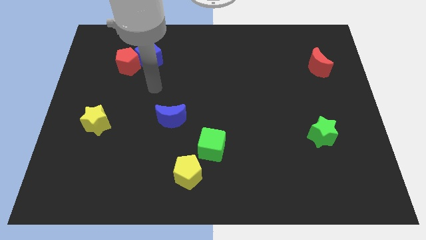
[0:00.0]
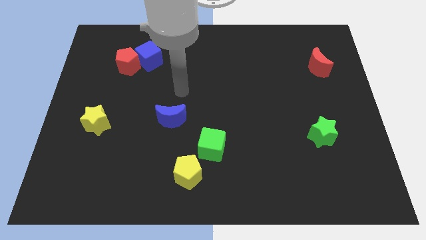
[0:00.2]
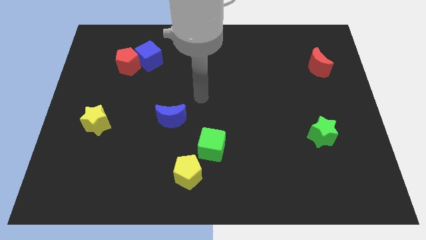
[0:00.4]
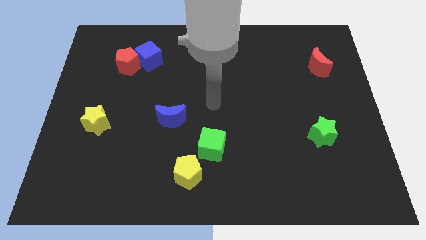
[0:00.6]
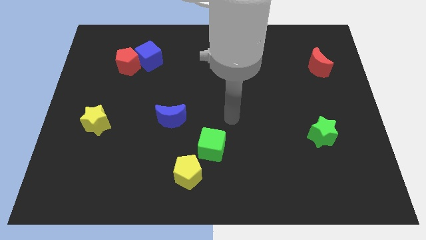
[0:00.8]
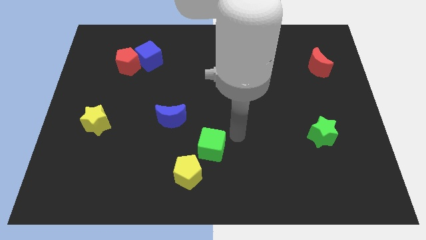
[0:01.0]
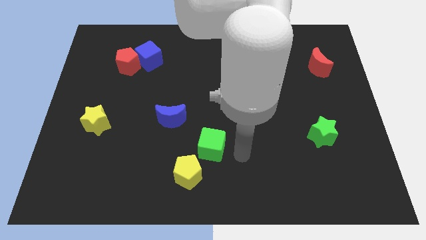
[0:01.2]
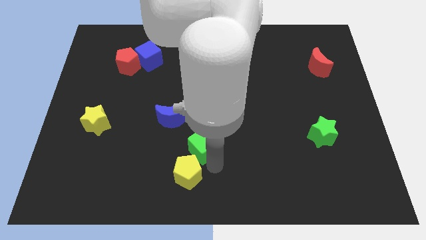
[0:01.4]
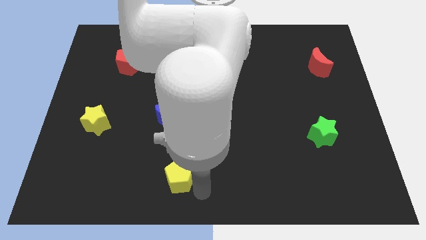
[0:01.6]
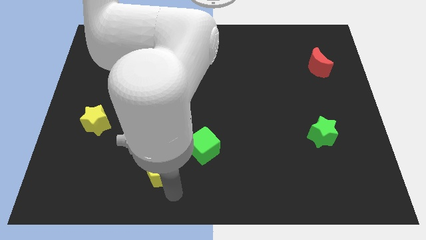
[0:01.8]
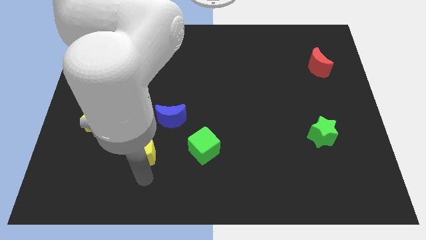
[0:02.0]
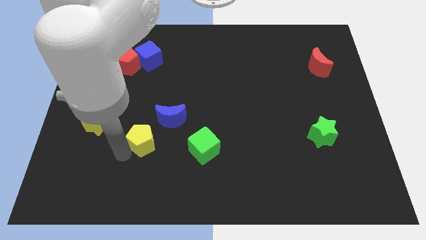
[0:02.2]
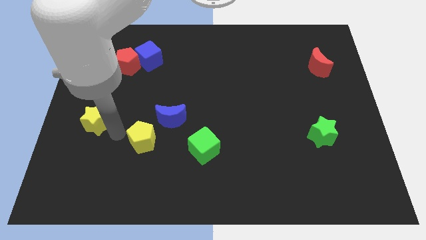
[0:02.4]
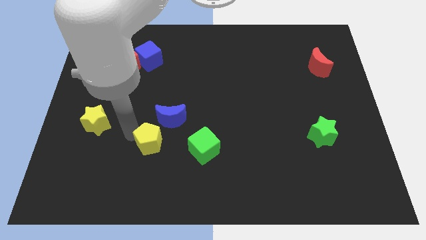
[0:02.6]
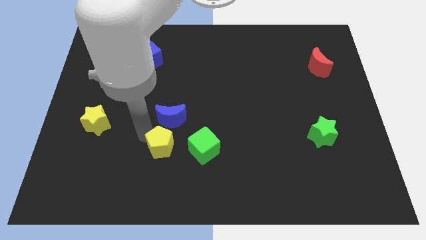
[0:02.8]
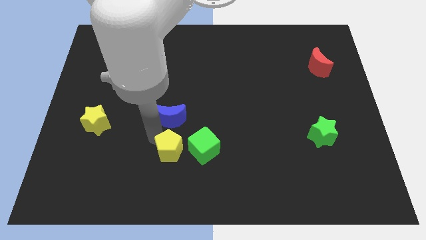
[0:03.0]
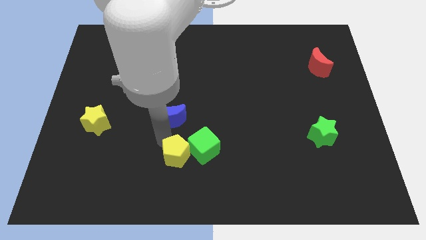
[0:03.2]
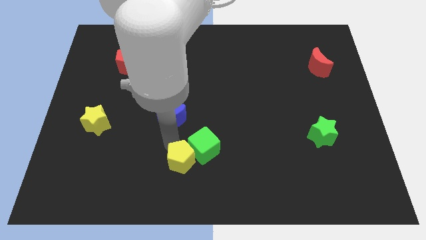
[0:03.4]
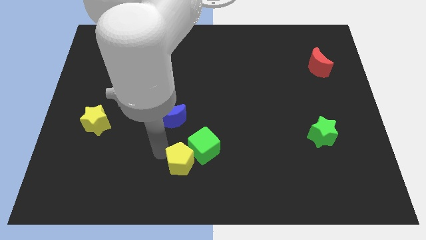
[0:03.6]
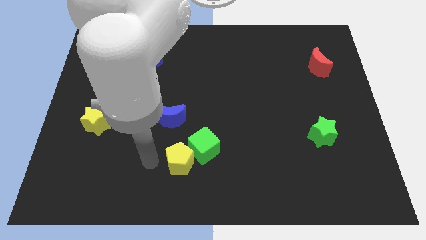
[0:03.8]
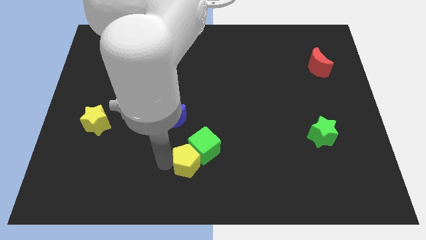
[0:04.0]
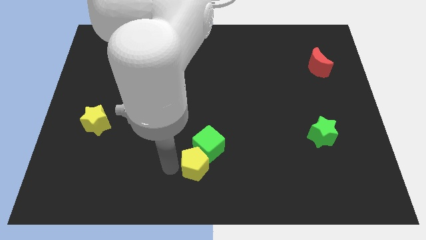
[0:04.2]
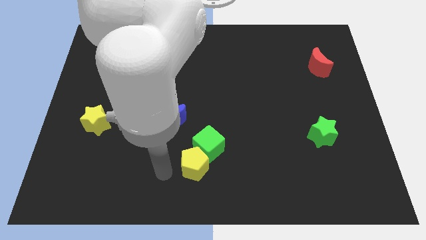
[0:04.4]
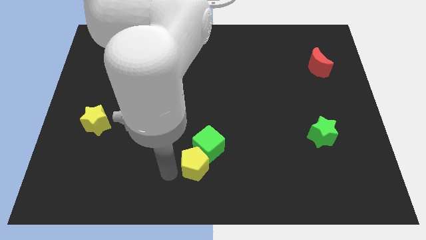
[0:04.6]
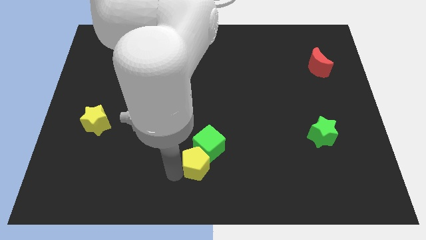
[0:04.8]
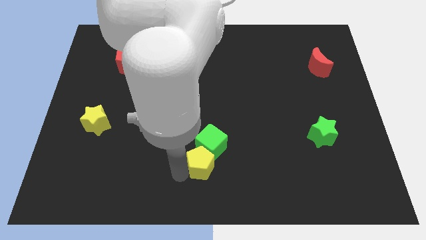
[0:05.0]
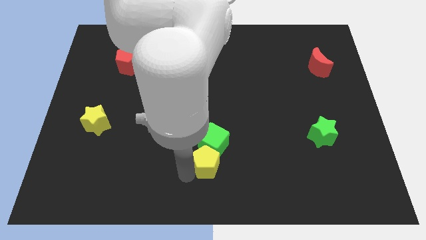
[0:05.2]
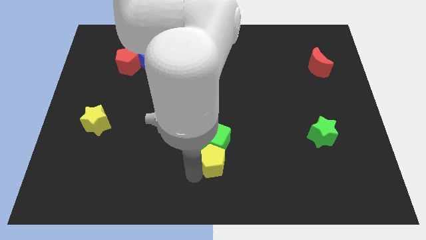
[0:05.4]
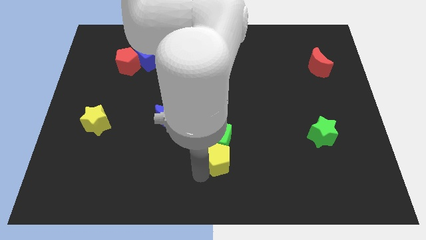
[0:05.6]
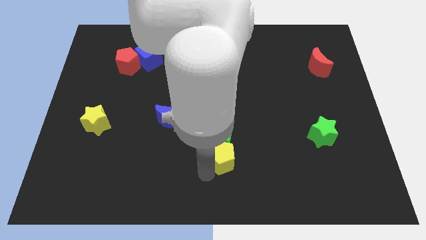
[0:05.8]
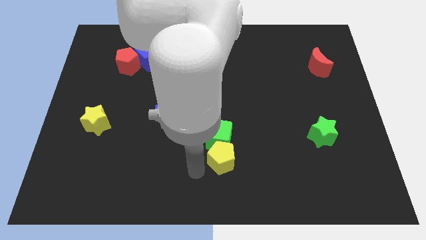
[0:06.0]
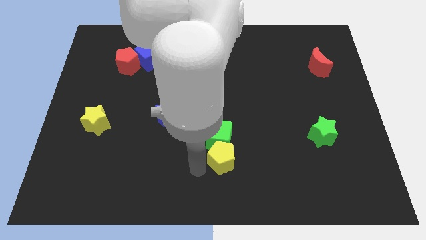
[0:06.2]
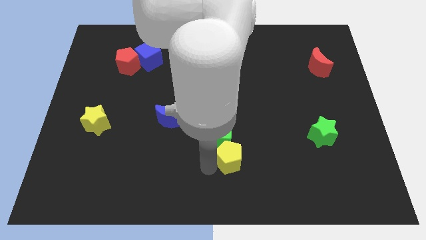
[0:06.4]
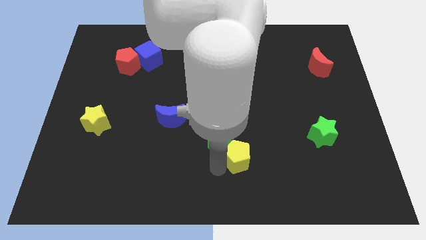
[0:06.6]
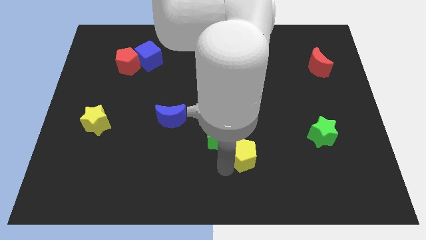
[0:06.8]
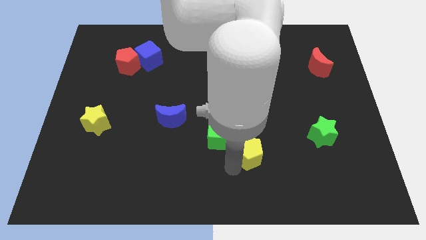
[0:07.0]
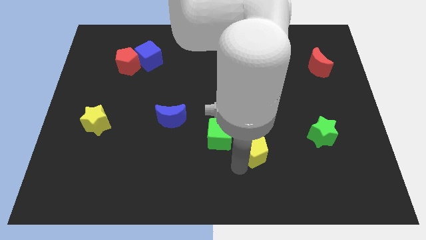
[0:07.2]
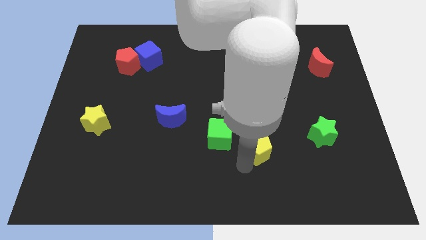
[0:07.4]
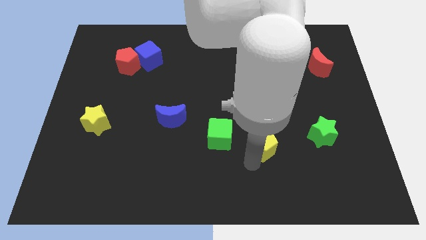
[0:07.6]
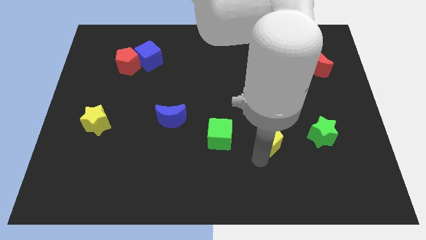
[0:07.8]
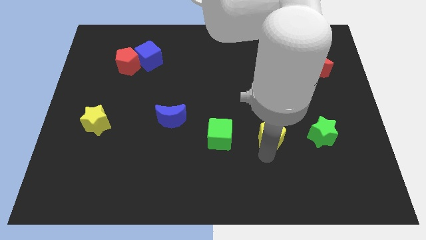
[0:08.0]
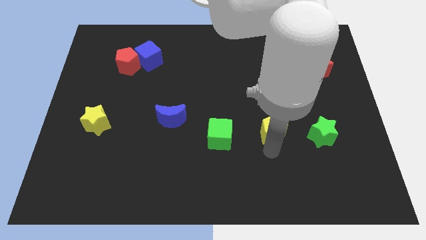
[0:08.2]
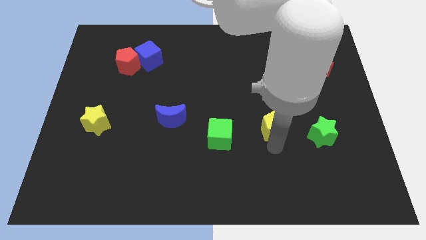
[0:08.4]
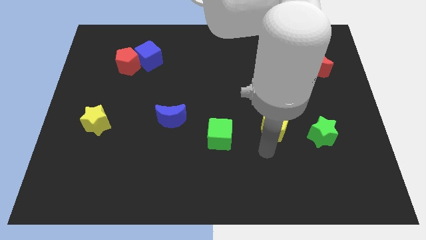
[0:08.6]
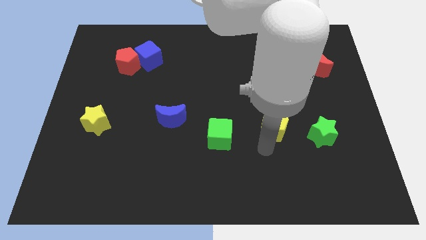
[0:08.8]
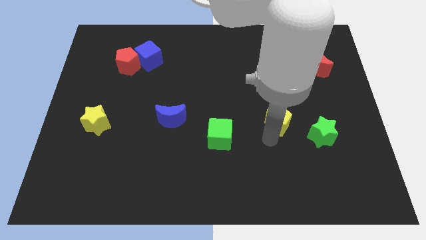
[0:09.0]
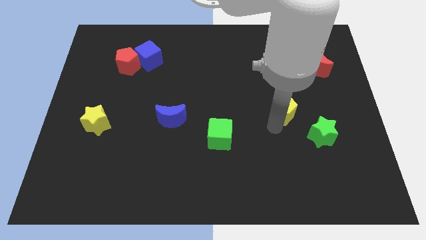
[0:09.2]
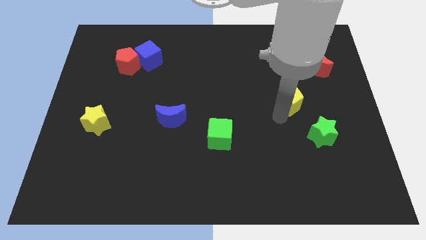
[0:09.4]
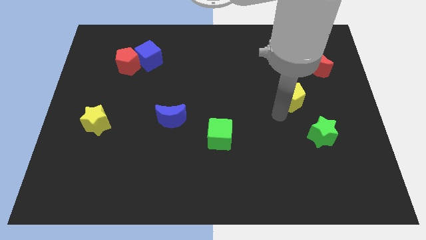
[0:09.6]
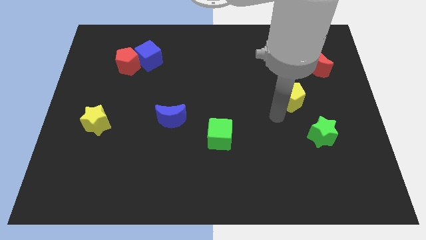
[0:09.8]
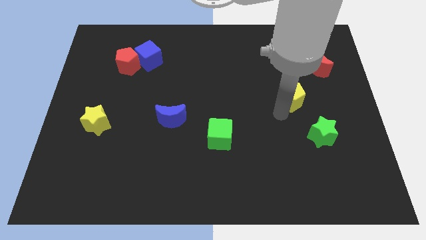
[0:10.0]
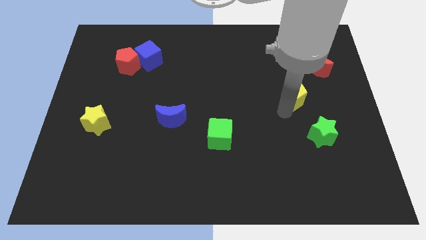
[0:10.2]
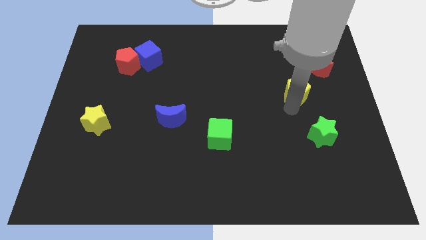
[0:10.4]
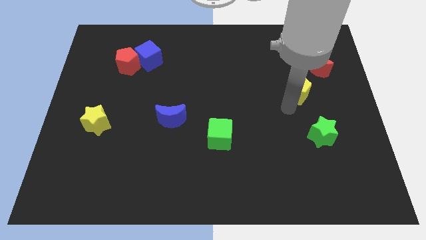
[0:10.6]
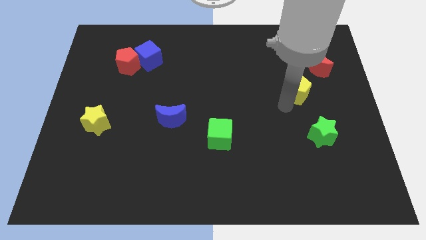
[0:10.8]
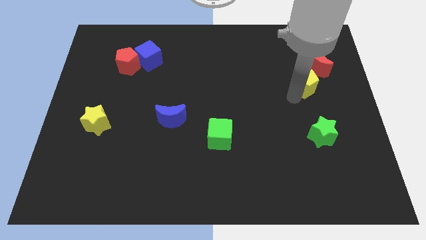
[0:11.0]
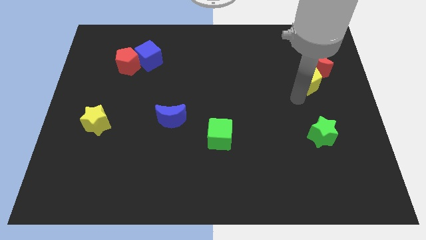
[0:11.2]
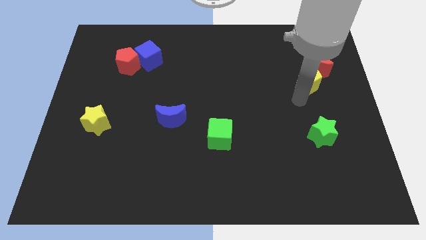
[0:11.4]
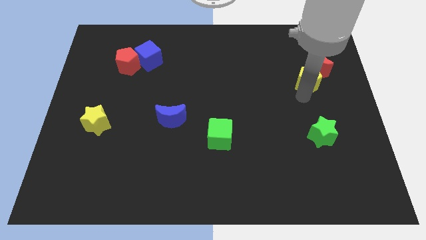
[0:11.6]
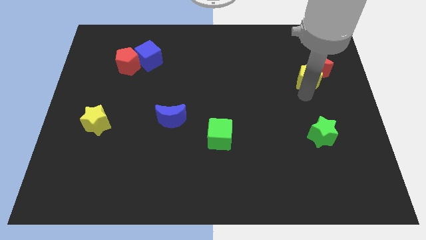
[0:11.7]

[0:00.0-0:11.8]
slide the yellow pentagon to the red moon

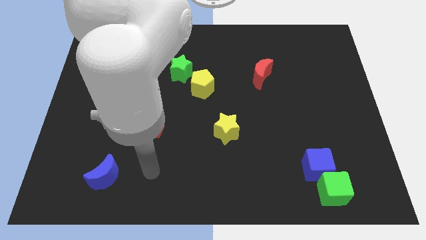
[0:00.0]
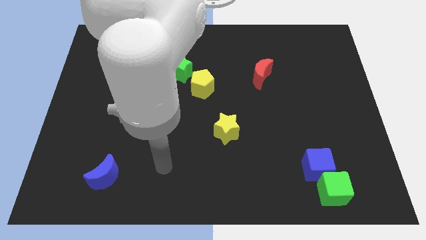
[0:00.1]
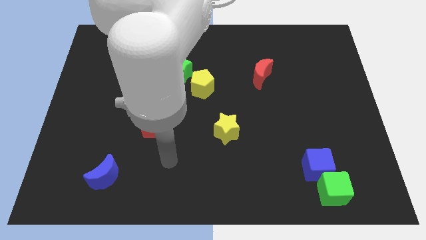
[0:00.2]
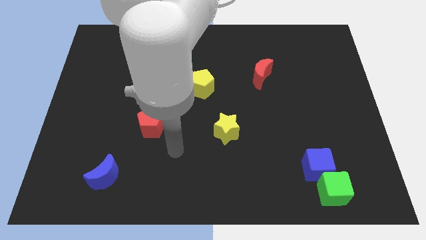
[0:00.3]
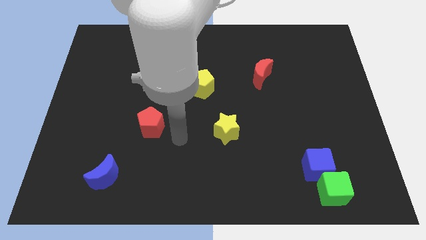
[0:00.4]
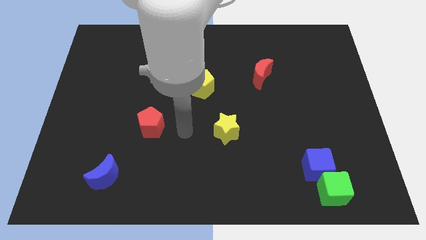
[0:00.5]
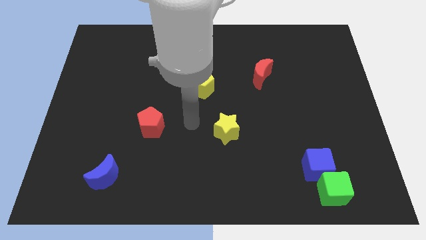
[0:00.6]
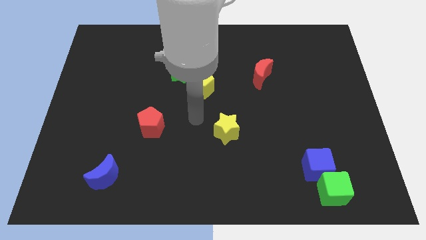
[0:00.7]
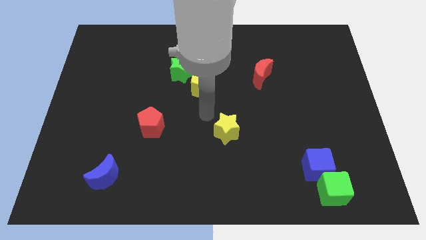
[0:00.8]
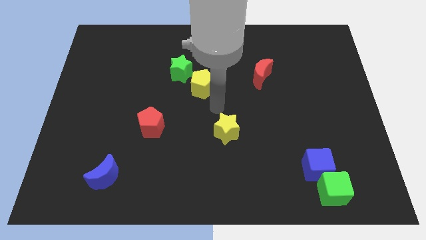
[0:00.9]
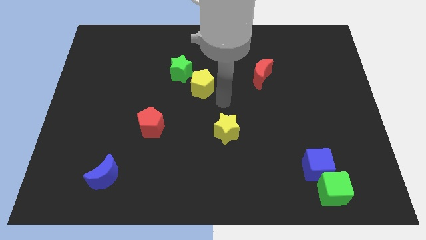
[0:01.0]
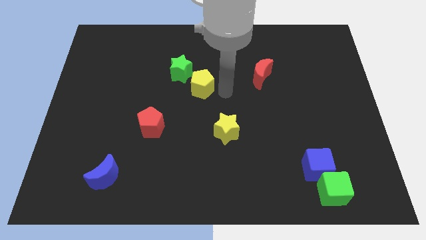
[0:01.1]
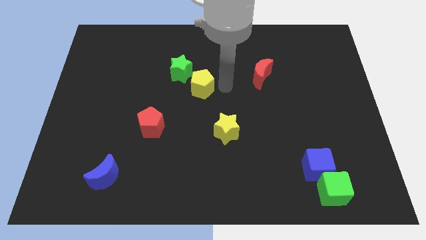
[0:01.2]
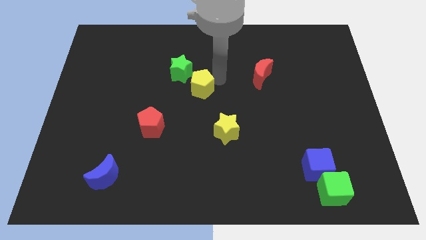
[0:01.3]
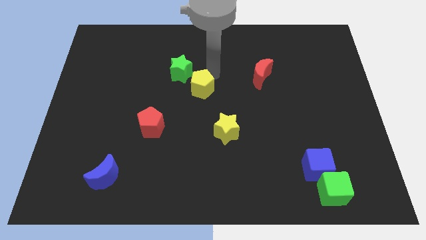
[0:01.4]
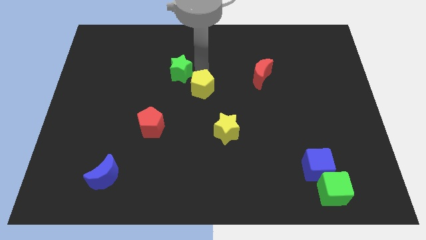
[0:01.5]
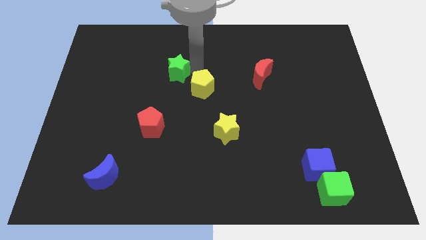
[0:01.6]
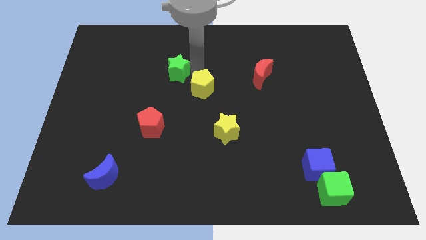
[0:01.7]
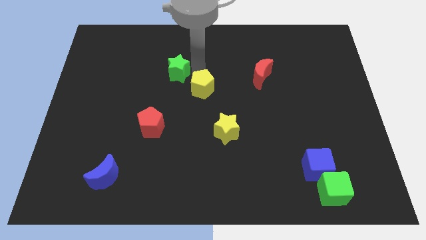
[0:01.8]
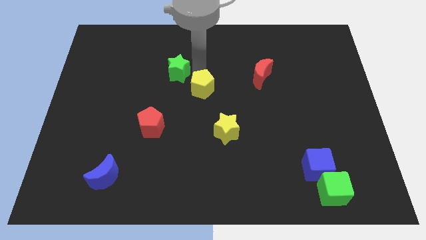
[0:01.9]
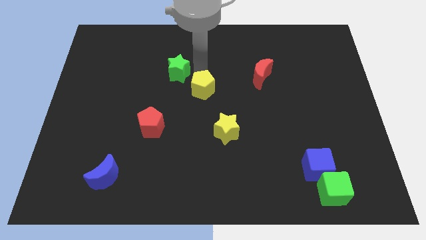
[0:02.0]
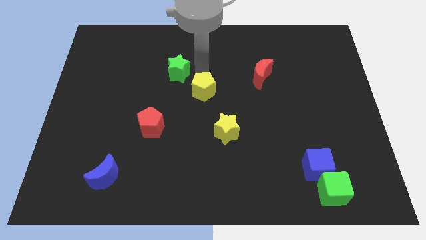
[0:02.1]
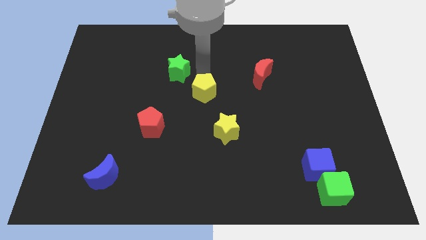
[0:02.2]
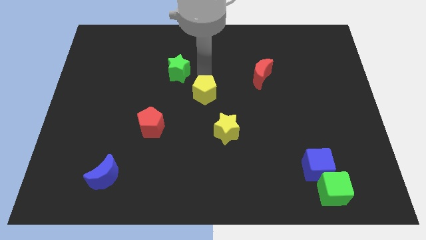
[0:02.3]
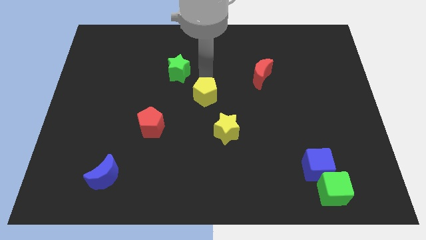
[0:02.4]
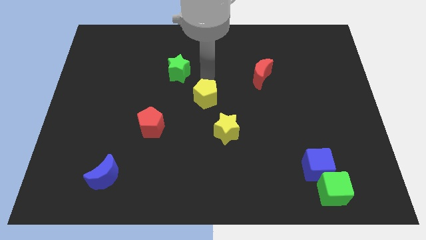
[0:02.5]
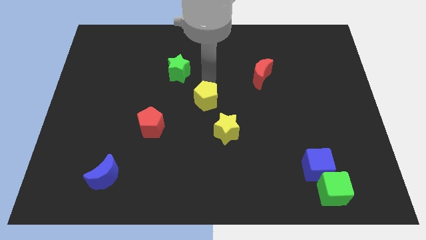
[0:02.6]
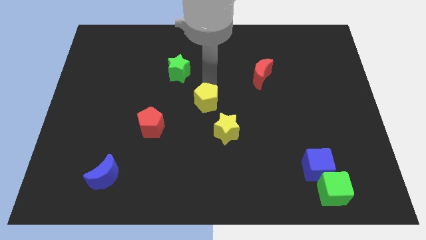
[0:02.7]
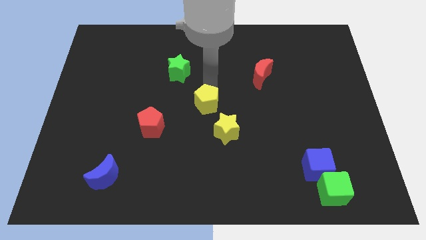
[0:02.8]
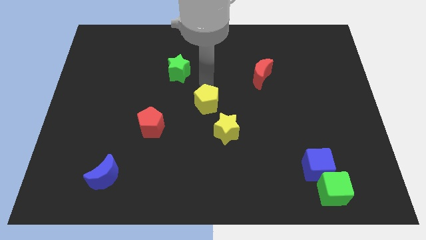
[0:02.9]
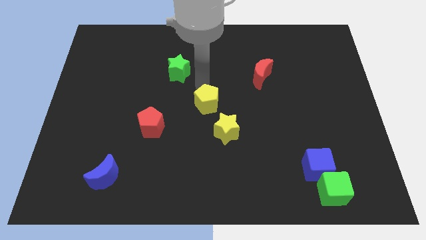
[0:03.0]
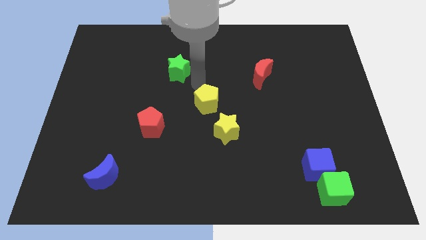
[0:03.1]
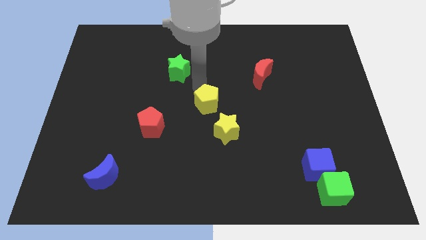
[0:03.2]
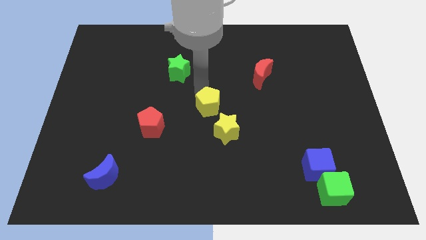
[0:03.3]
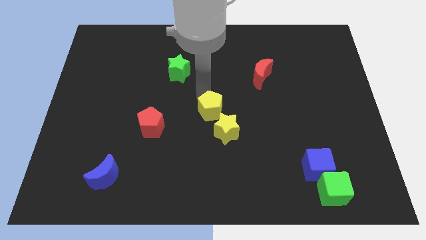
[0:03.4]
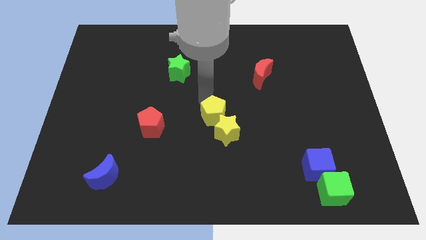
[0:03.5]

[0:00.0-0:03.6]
put the yellow pentagon towards the yellow star
